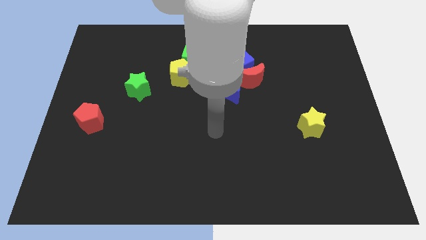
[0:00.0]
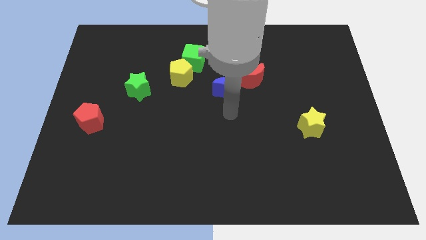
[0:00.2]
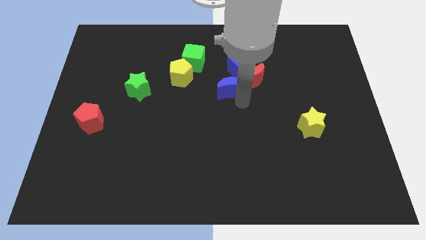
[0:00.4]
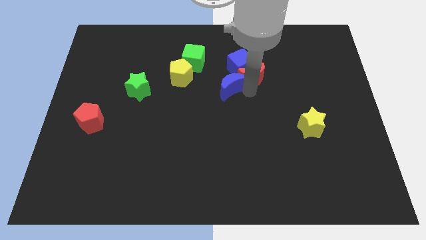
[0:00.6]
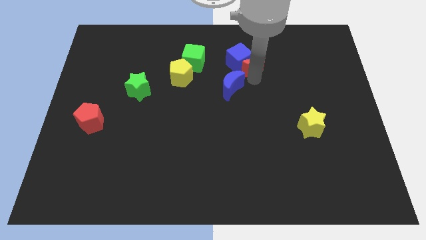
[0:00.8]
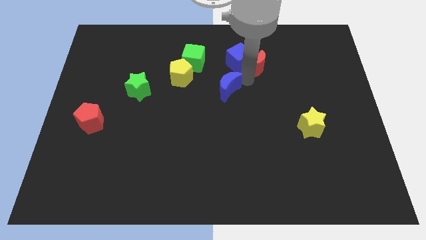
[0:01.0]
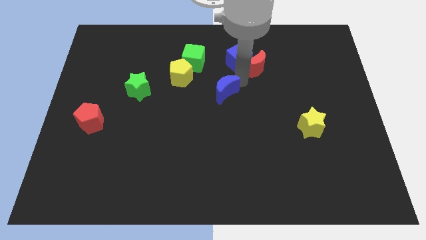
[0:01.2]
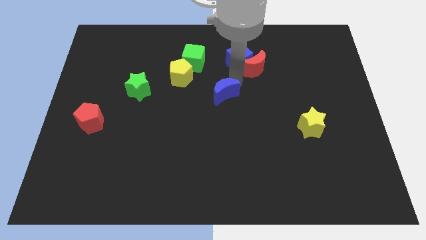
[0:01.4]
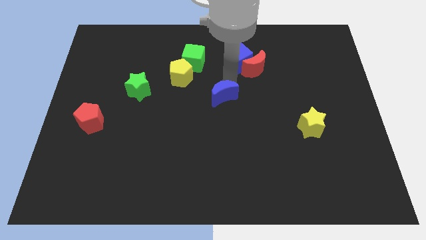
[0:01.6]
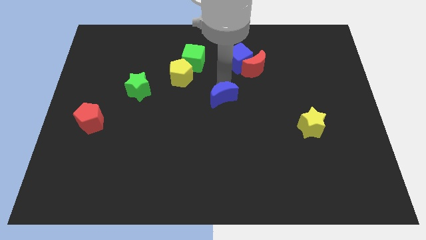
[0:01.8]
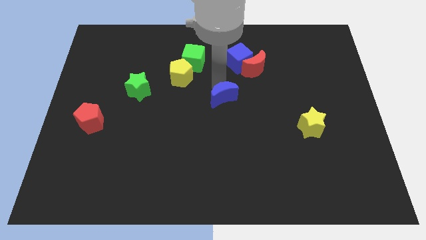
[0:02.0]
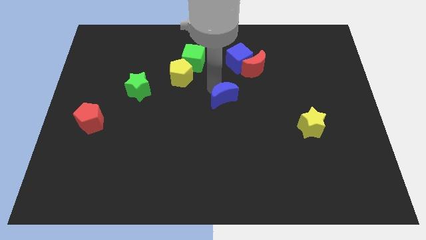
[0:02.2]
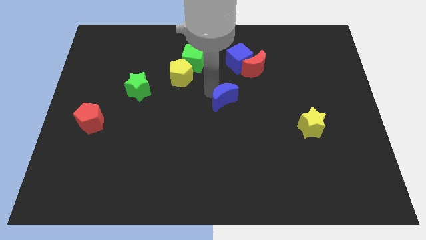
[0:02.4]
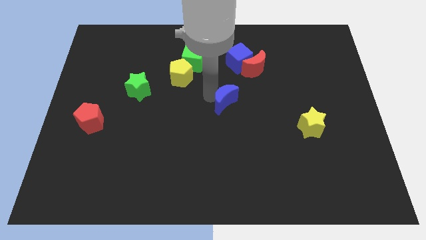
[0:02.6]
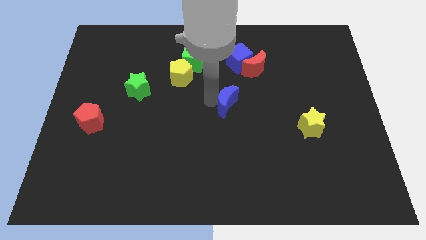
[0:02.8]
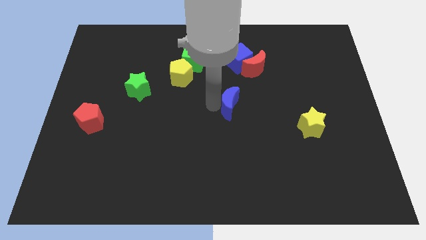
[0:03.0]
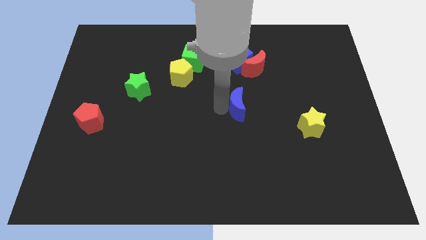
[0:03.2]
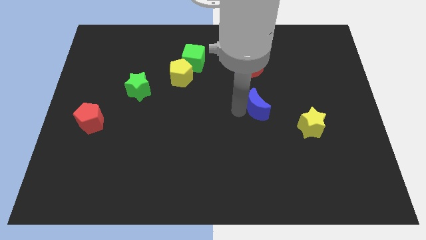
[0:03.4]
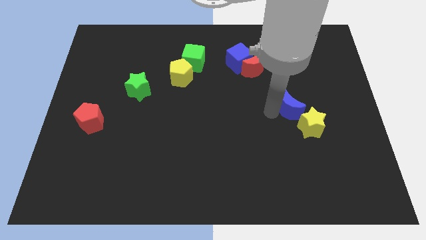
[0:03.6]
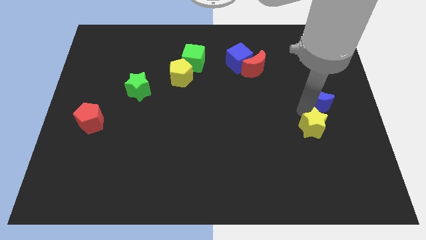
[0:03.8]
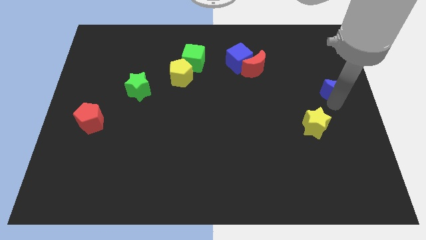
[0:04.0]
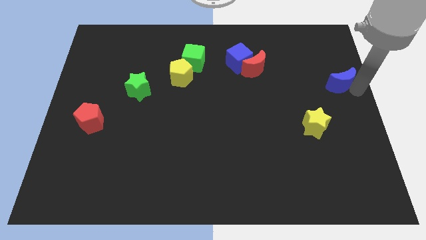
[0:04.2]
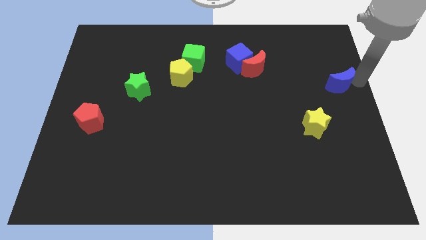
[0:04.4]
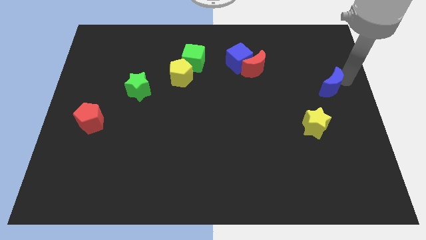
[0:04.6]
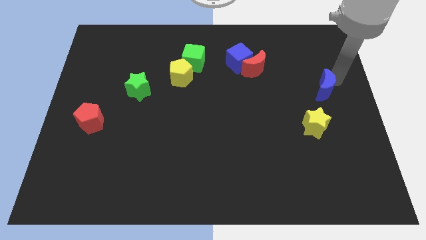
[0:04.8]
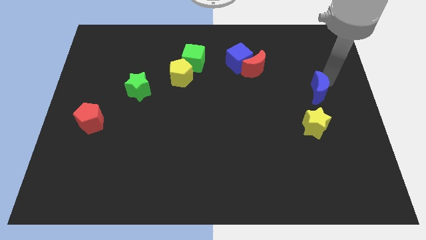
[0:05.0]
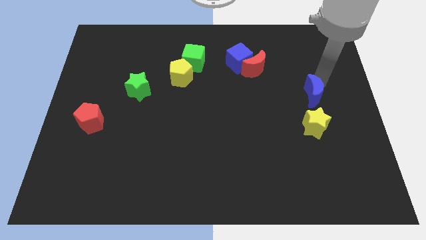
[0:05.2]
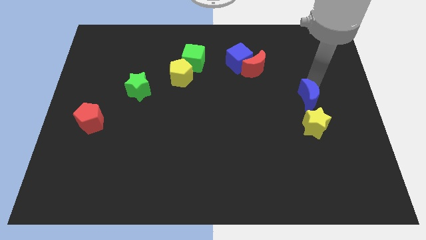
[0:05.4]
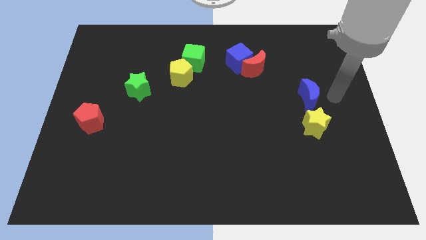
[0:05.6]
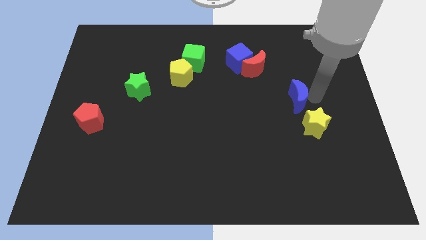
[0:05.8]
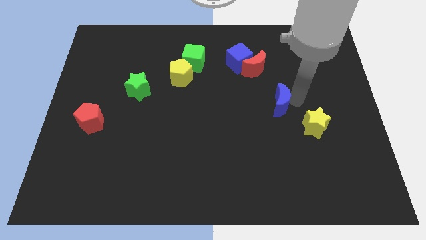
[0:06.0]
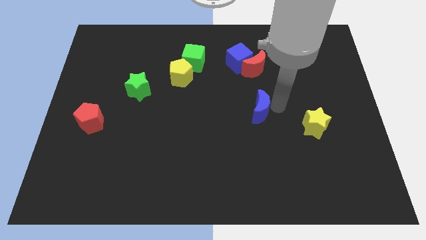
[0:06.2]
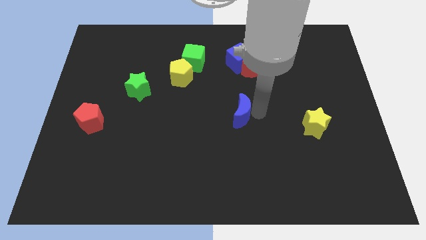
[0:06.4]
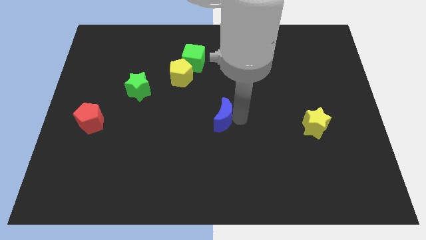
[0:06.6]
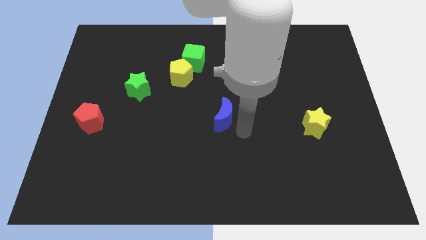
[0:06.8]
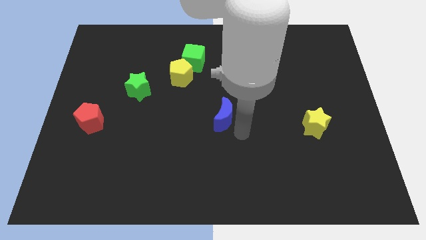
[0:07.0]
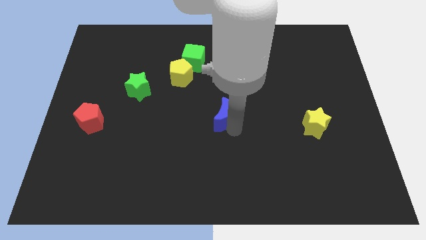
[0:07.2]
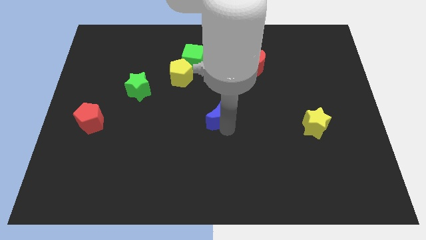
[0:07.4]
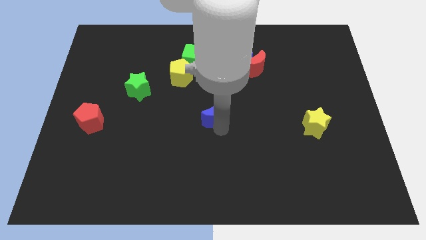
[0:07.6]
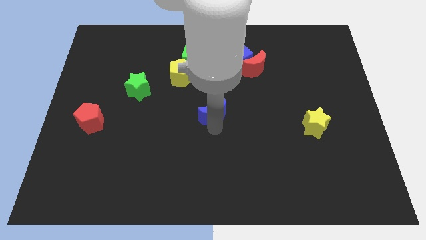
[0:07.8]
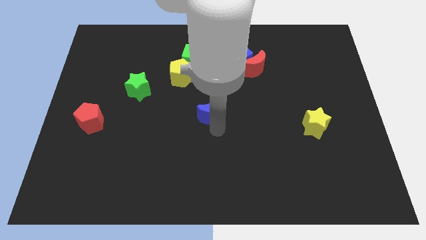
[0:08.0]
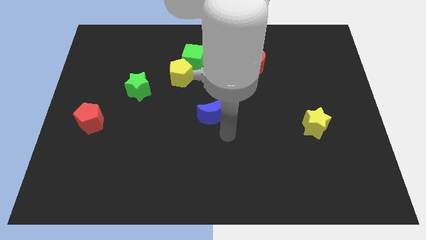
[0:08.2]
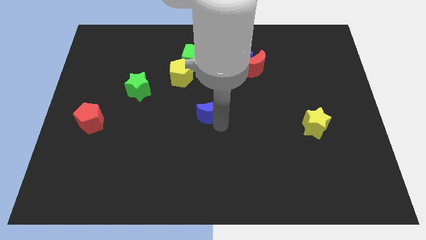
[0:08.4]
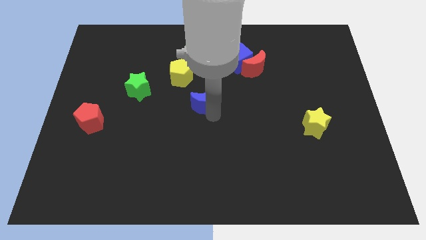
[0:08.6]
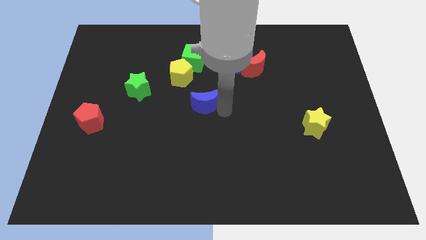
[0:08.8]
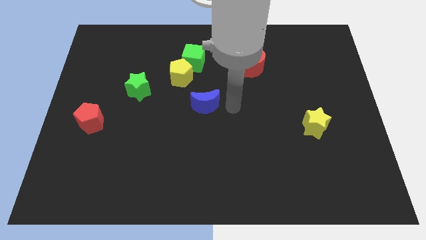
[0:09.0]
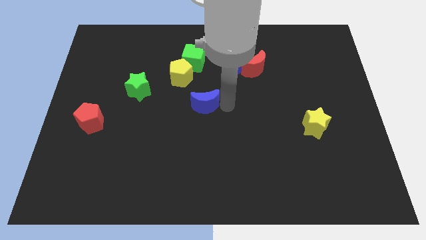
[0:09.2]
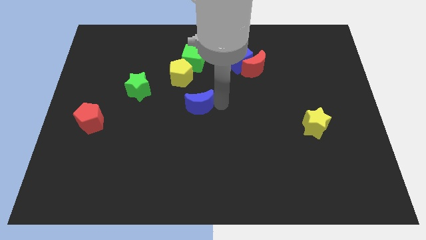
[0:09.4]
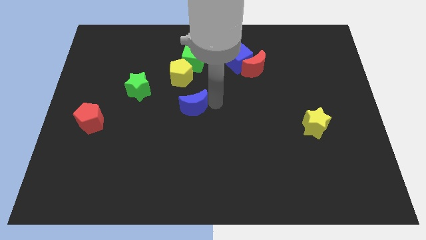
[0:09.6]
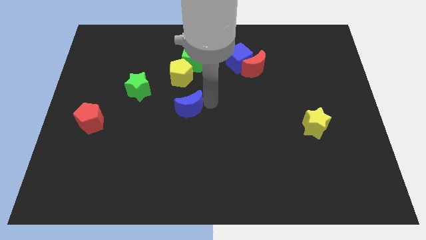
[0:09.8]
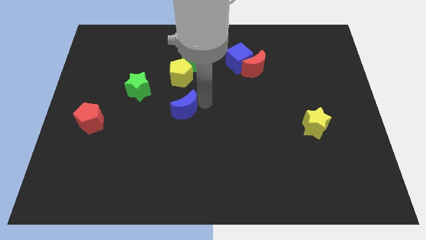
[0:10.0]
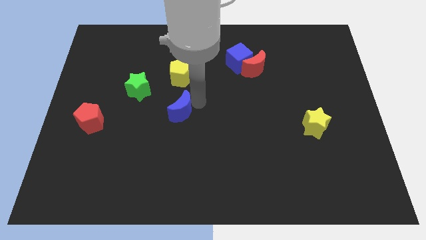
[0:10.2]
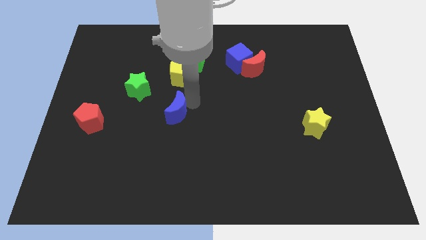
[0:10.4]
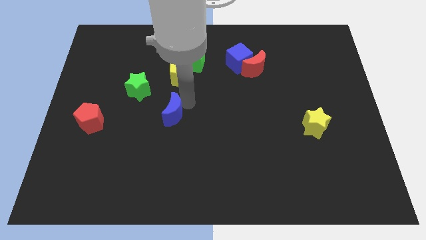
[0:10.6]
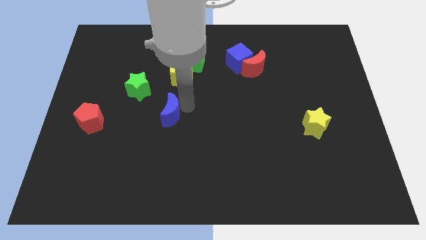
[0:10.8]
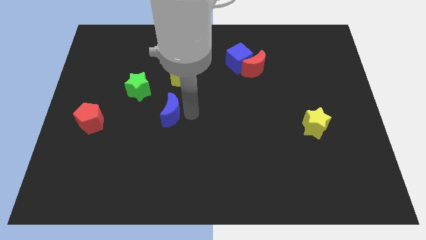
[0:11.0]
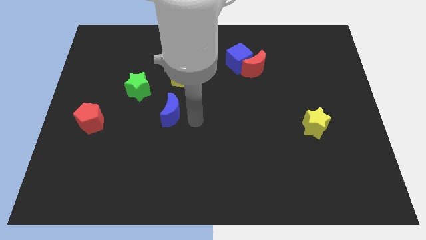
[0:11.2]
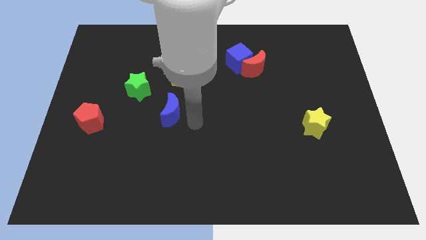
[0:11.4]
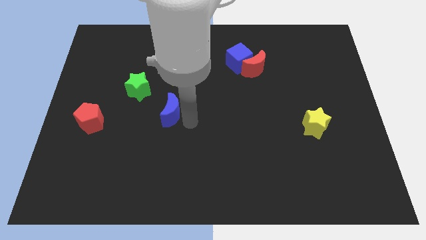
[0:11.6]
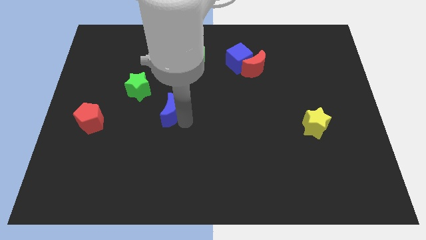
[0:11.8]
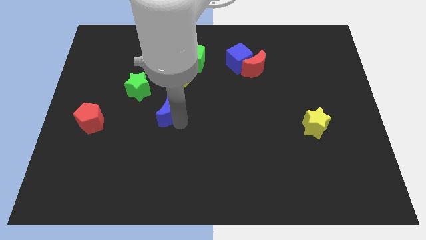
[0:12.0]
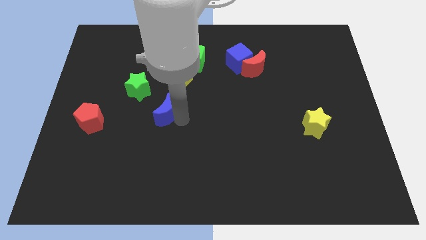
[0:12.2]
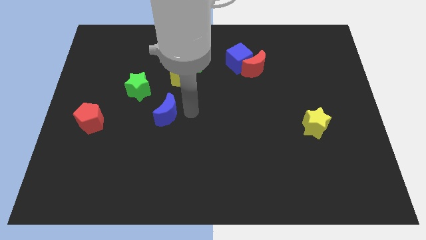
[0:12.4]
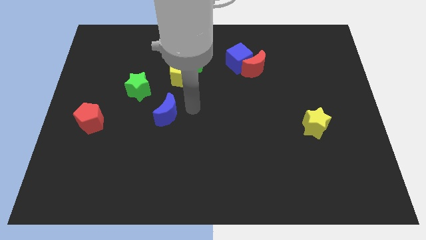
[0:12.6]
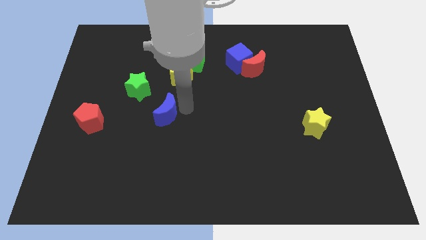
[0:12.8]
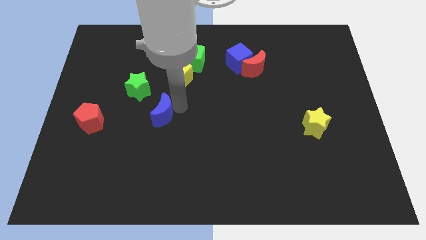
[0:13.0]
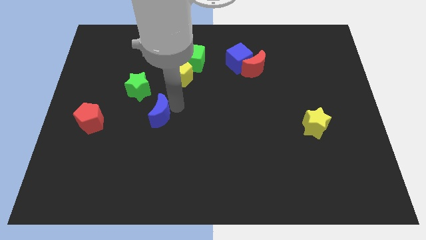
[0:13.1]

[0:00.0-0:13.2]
move the blue moon just right of the red pentagon

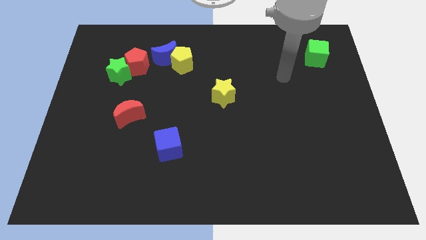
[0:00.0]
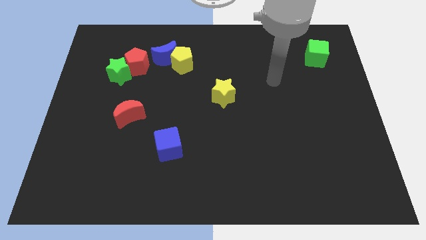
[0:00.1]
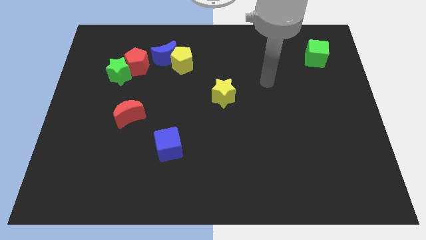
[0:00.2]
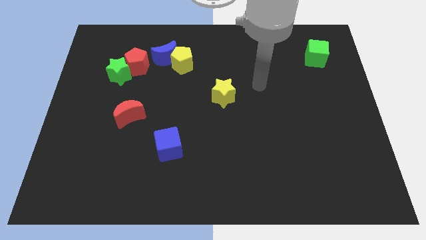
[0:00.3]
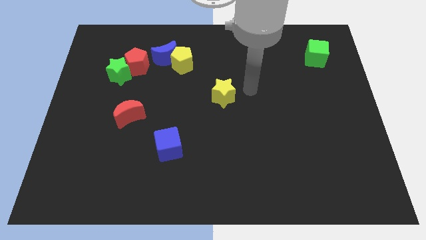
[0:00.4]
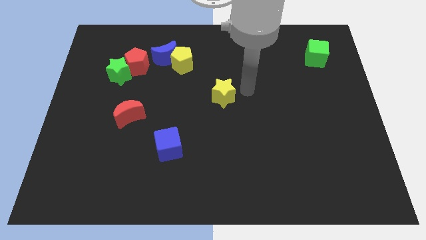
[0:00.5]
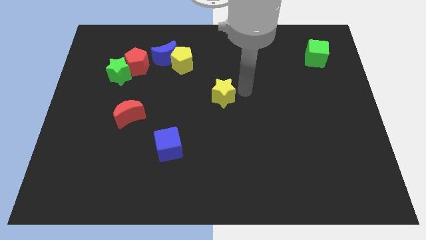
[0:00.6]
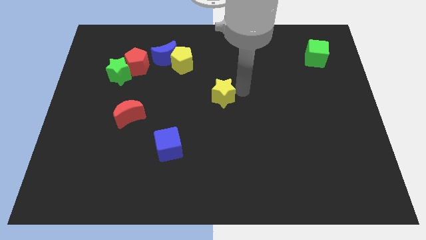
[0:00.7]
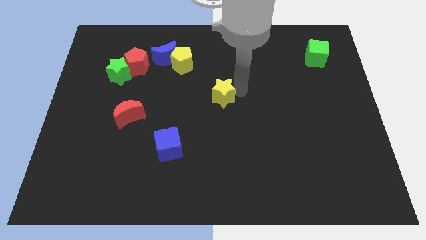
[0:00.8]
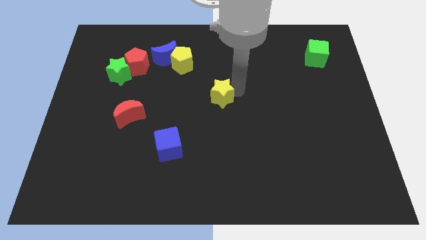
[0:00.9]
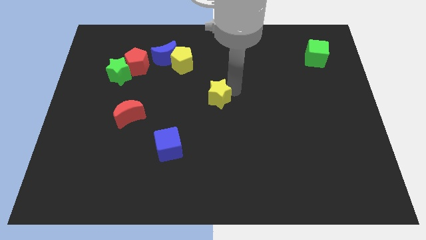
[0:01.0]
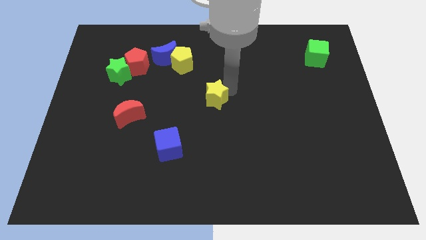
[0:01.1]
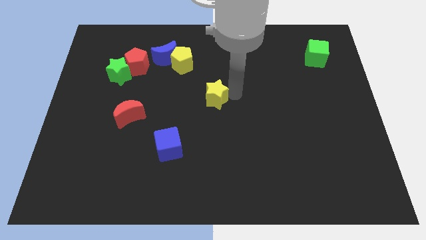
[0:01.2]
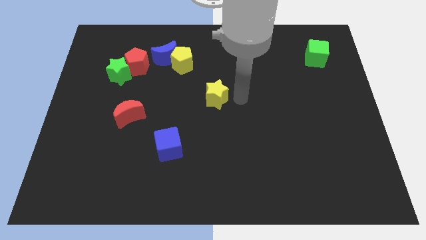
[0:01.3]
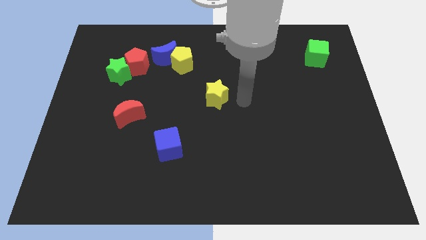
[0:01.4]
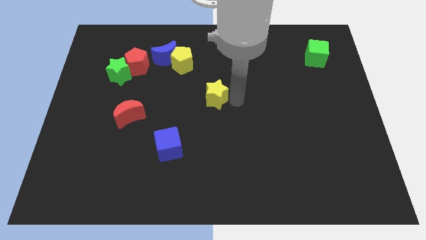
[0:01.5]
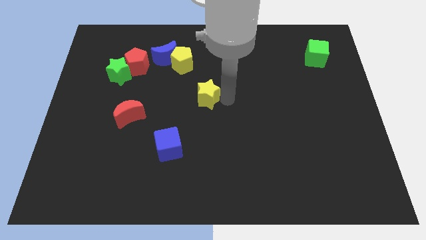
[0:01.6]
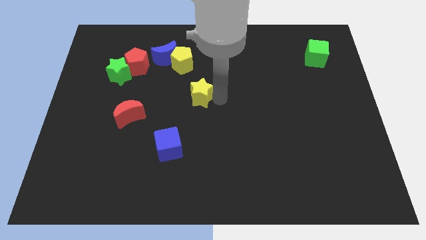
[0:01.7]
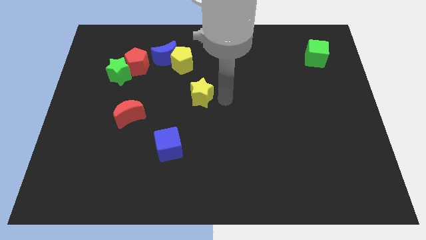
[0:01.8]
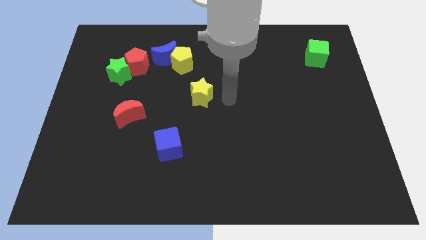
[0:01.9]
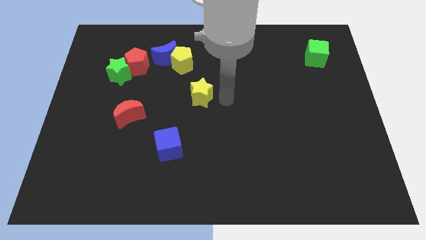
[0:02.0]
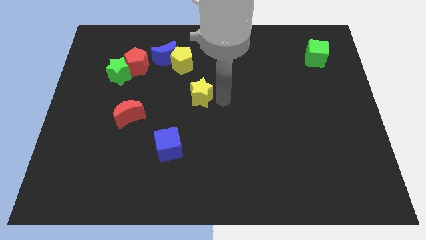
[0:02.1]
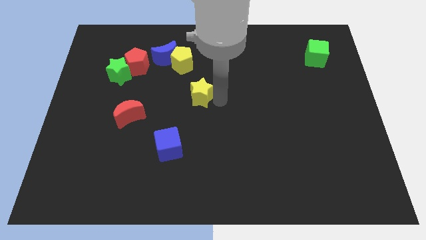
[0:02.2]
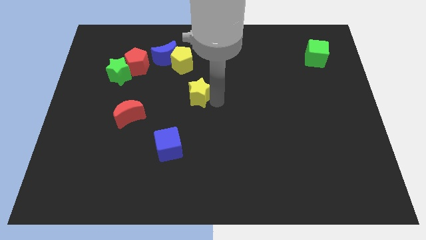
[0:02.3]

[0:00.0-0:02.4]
slide the yellow star to the bottom of the yellow pentagon
